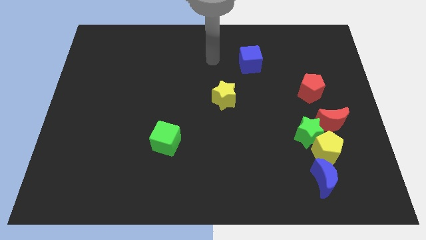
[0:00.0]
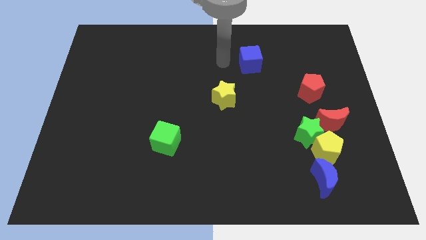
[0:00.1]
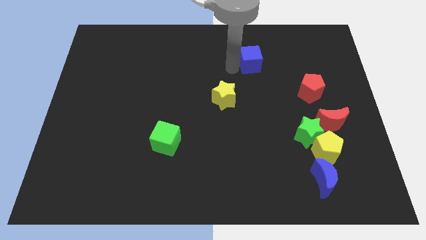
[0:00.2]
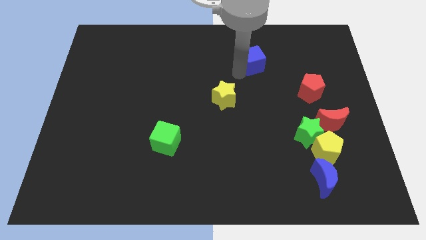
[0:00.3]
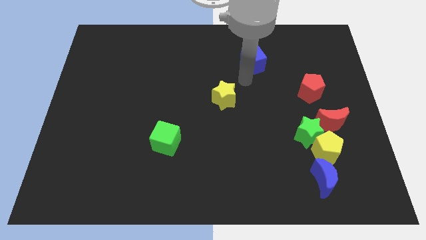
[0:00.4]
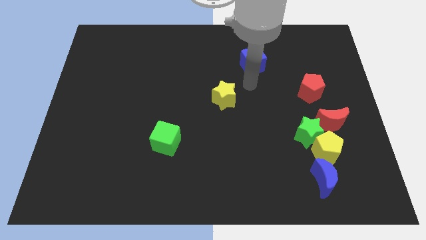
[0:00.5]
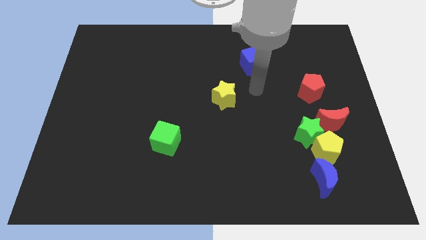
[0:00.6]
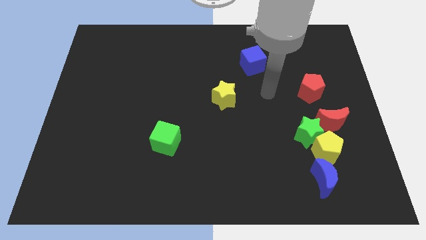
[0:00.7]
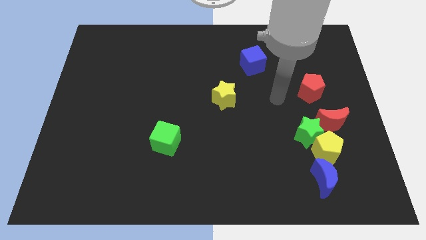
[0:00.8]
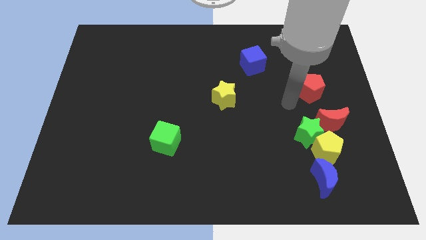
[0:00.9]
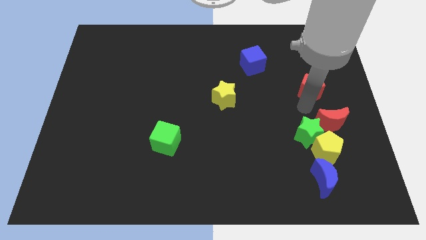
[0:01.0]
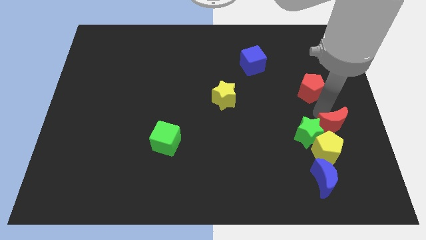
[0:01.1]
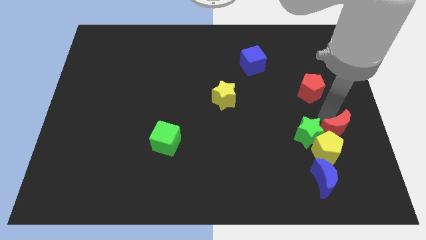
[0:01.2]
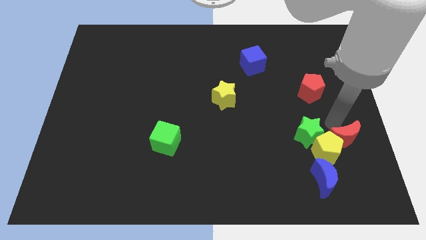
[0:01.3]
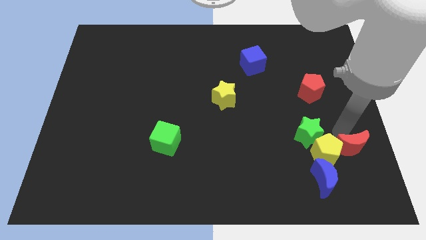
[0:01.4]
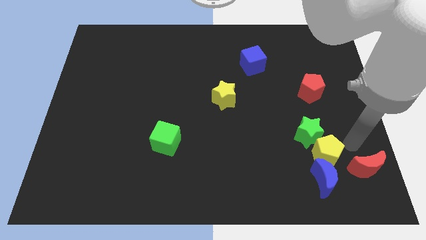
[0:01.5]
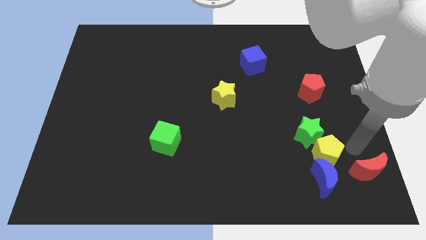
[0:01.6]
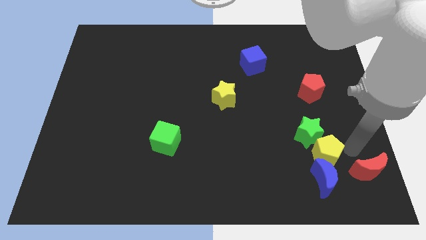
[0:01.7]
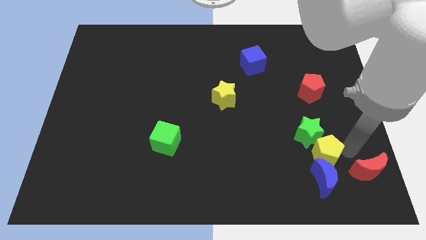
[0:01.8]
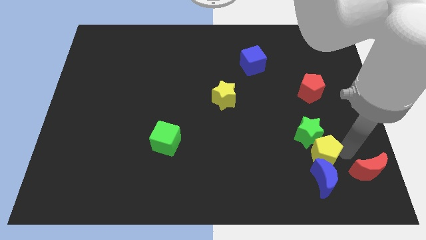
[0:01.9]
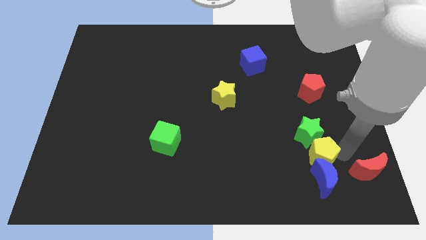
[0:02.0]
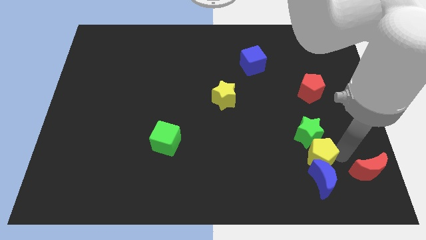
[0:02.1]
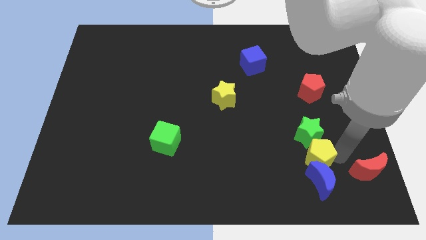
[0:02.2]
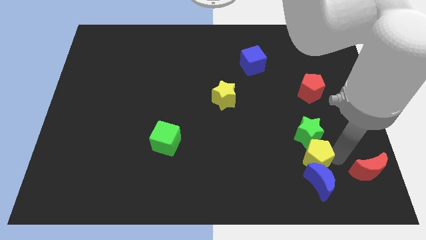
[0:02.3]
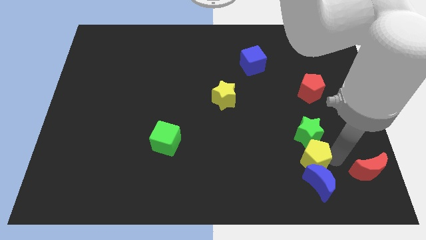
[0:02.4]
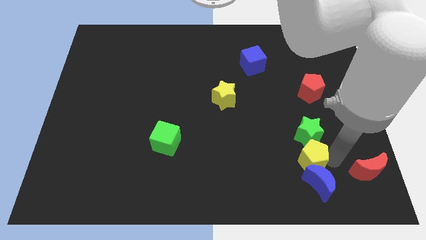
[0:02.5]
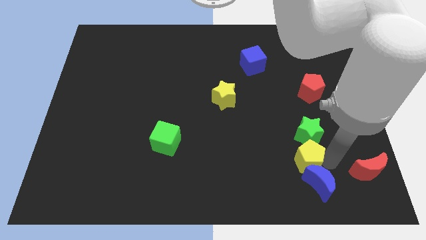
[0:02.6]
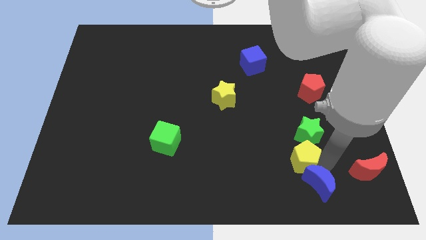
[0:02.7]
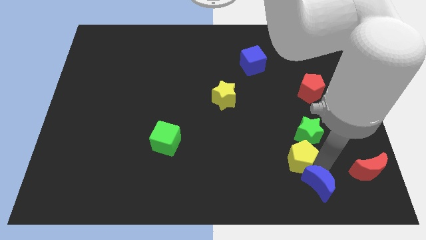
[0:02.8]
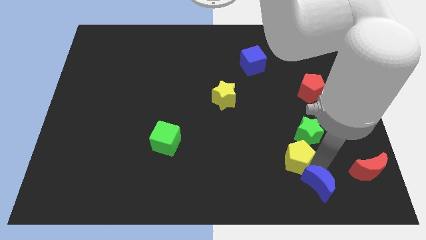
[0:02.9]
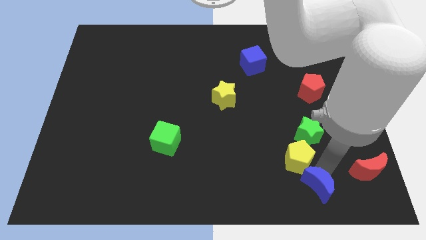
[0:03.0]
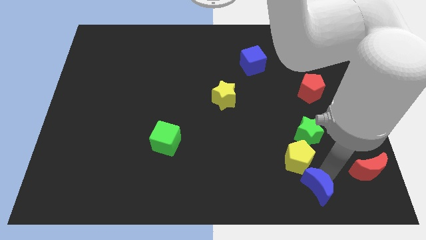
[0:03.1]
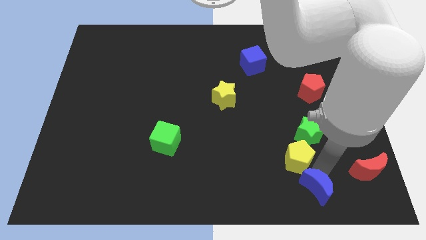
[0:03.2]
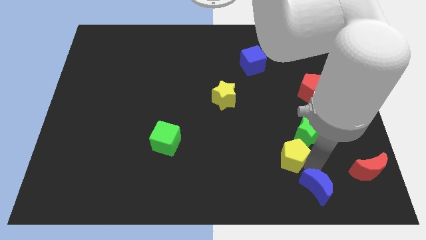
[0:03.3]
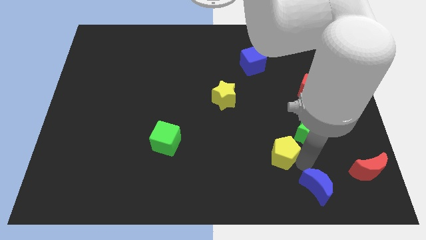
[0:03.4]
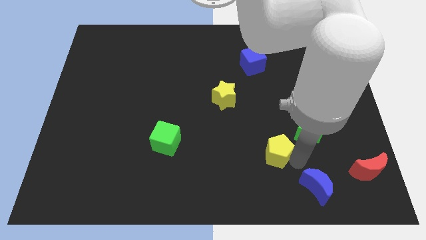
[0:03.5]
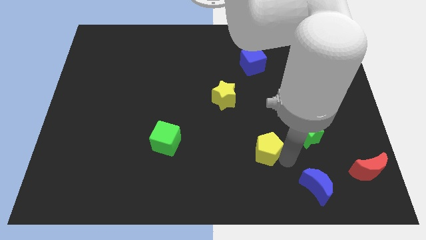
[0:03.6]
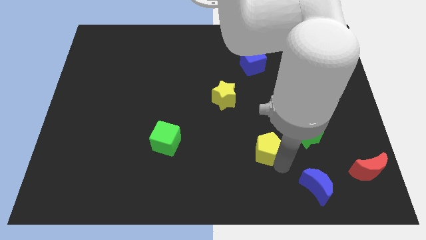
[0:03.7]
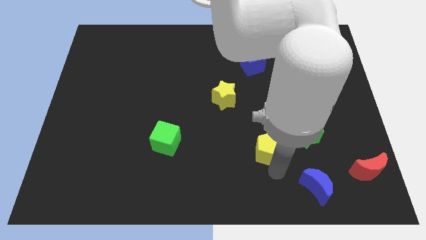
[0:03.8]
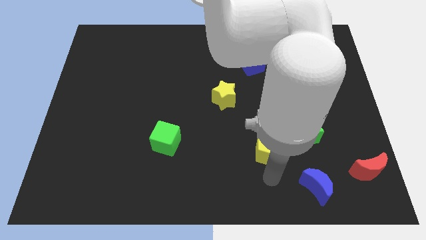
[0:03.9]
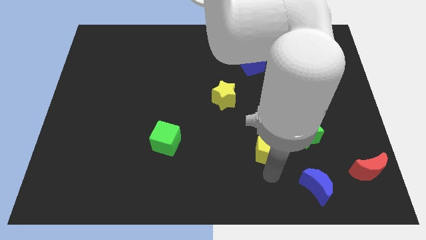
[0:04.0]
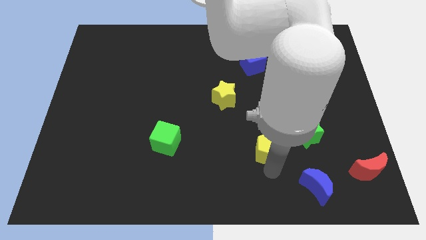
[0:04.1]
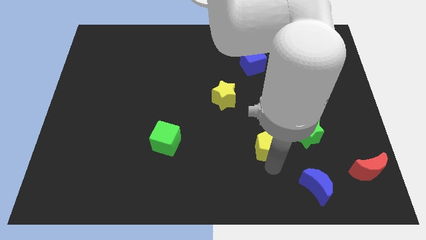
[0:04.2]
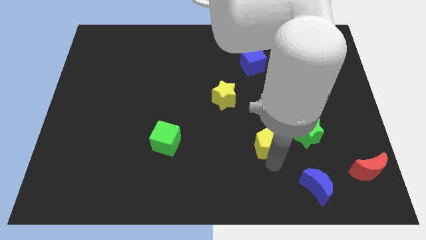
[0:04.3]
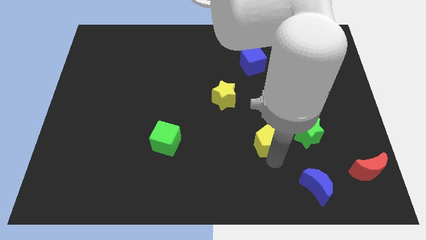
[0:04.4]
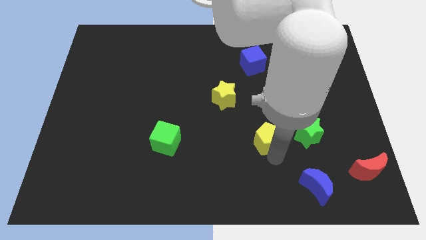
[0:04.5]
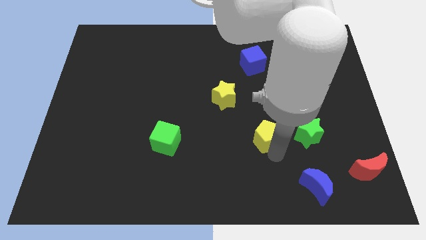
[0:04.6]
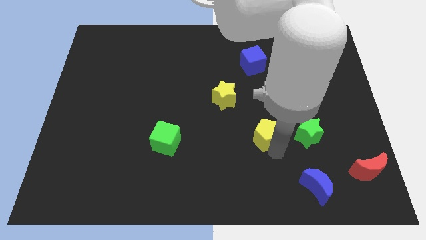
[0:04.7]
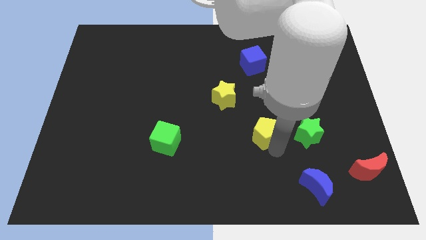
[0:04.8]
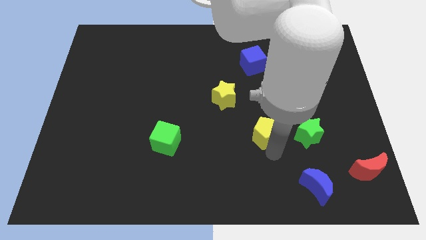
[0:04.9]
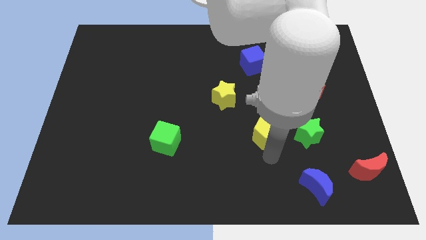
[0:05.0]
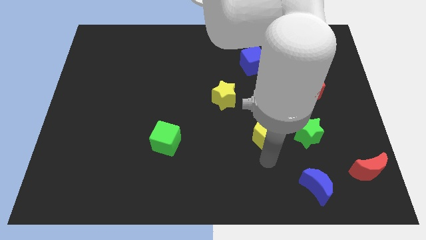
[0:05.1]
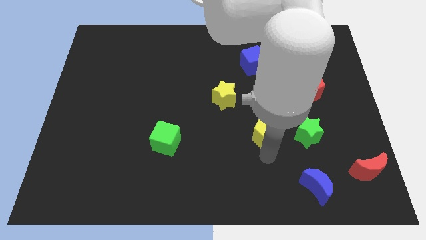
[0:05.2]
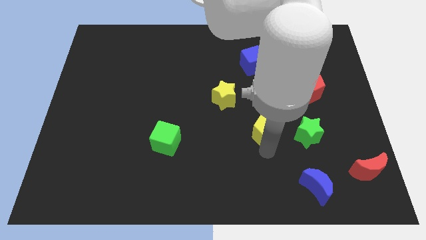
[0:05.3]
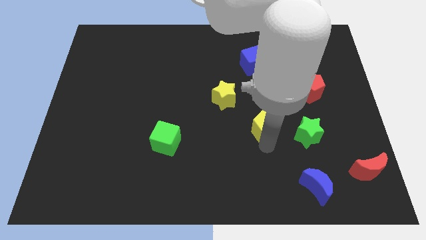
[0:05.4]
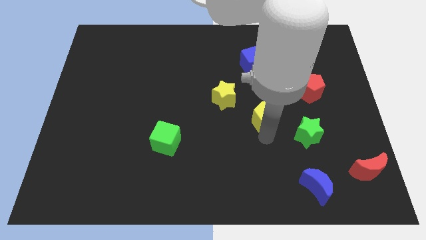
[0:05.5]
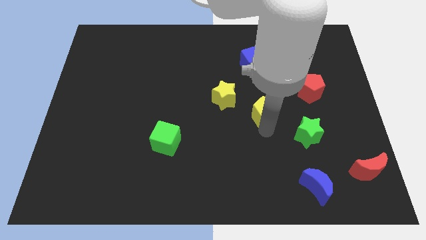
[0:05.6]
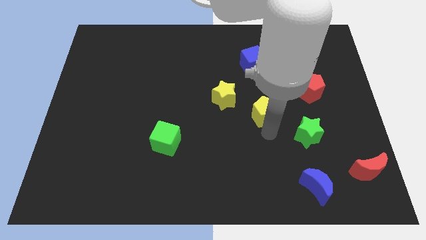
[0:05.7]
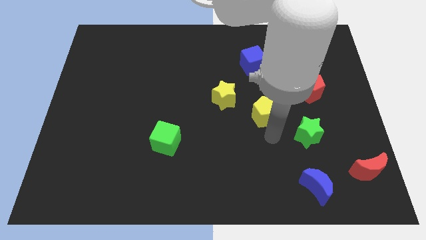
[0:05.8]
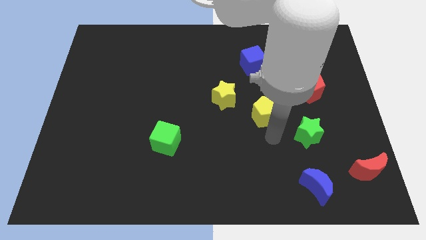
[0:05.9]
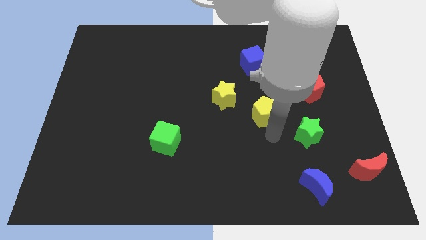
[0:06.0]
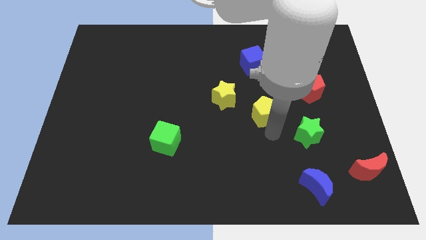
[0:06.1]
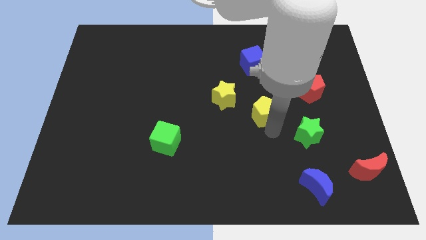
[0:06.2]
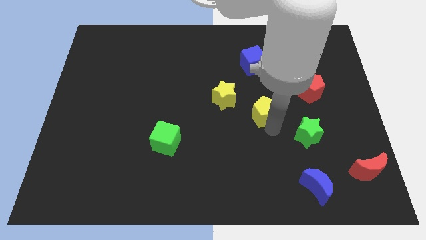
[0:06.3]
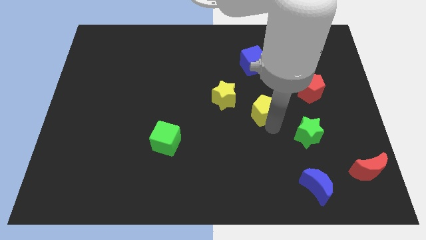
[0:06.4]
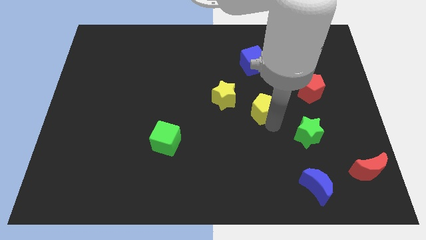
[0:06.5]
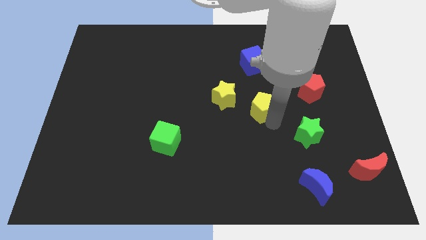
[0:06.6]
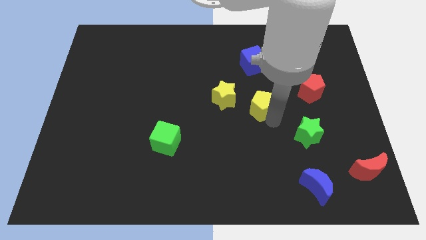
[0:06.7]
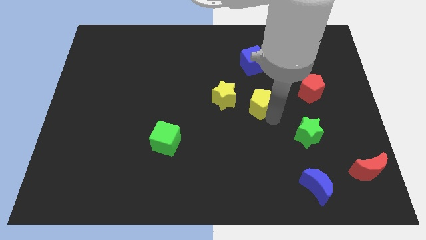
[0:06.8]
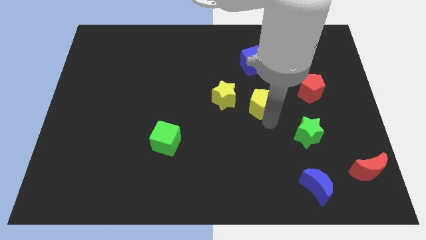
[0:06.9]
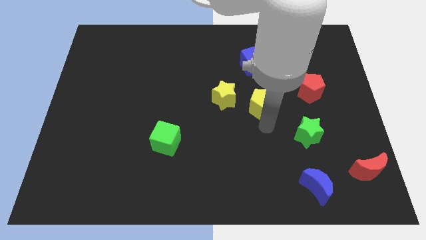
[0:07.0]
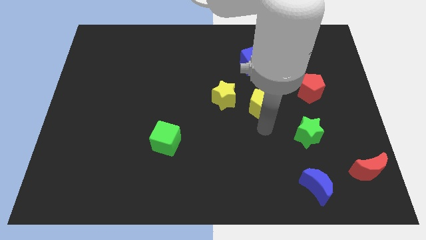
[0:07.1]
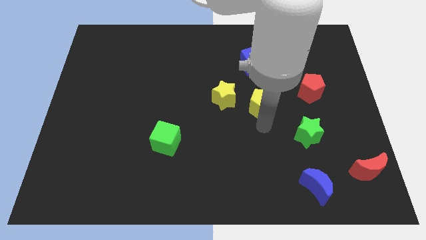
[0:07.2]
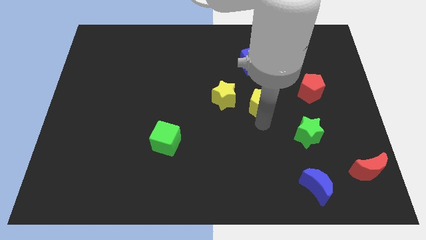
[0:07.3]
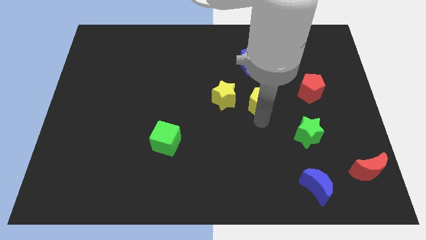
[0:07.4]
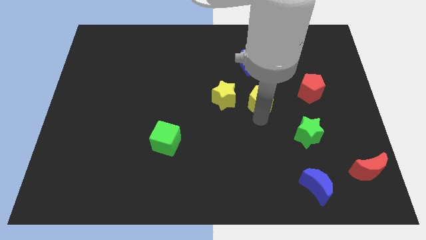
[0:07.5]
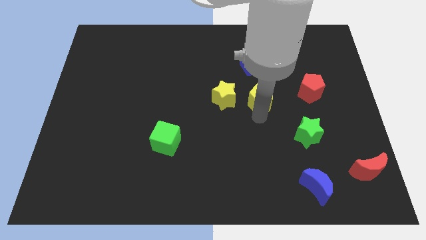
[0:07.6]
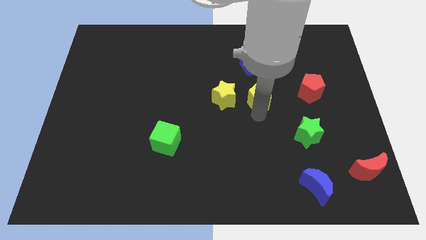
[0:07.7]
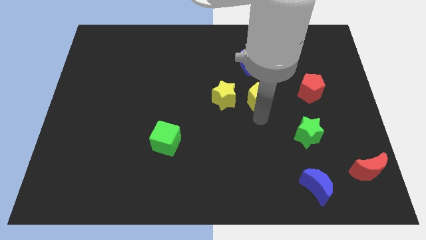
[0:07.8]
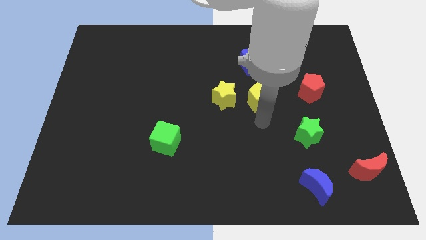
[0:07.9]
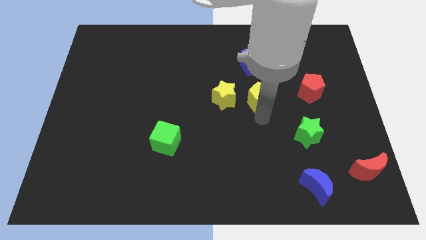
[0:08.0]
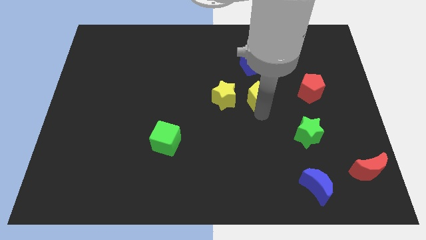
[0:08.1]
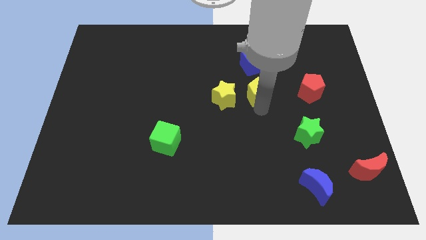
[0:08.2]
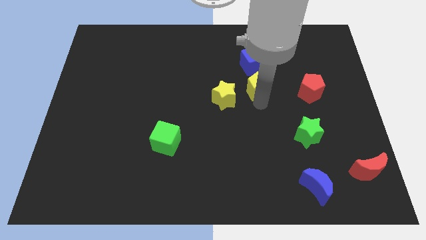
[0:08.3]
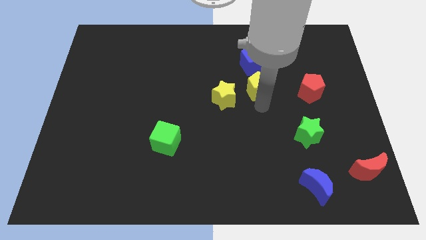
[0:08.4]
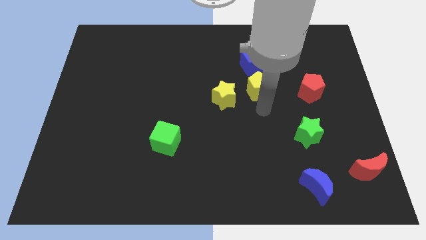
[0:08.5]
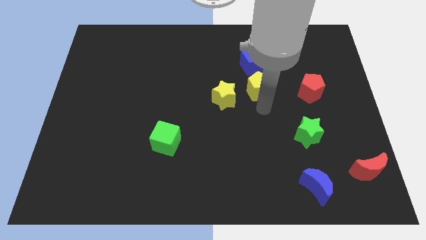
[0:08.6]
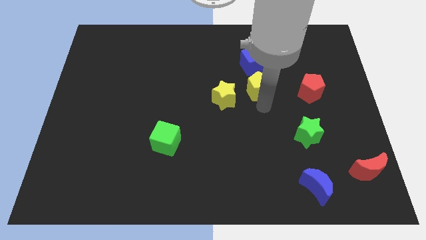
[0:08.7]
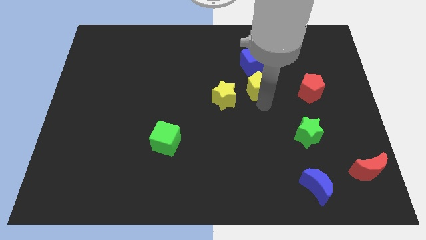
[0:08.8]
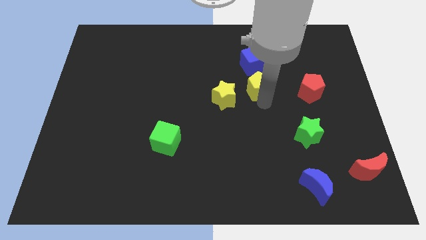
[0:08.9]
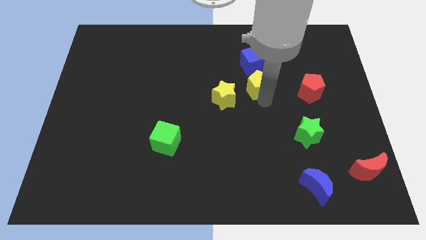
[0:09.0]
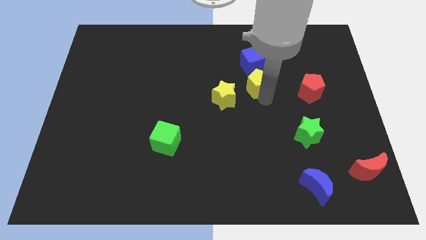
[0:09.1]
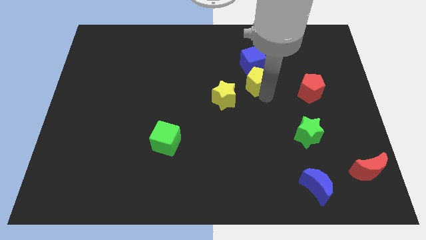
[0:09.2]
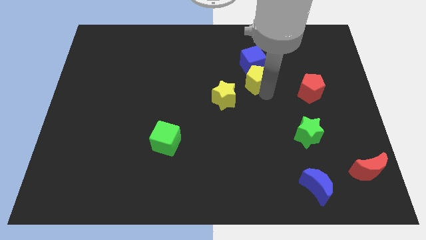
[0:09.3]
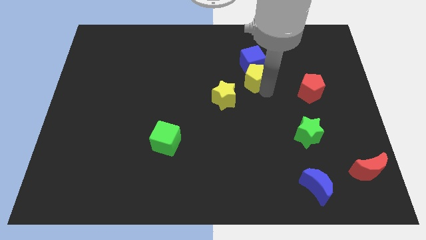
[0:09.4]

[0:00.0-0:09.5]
put the yellow pentagon towards the blue cube
